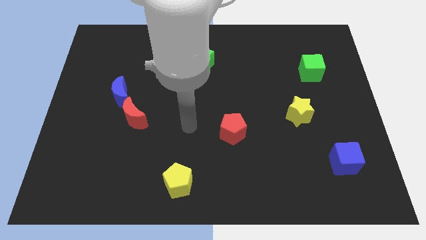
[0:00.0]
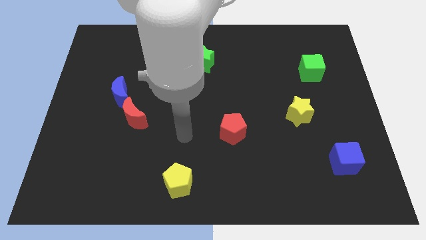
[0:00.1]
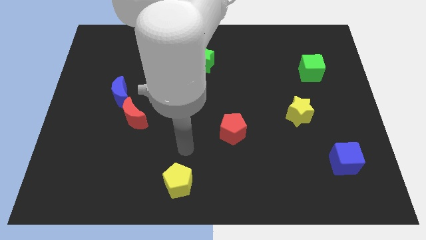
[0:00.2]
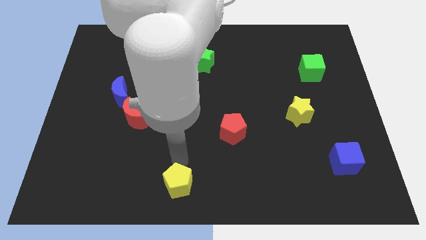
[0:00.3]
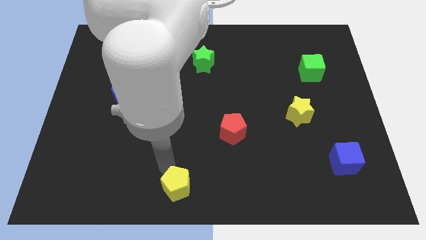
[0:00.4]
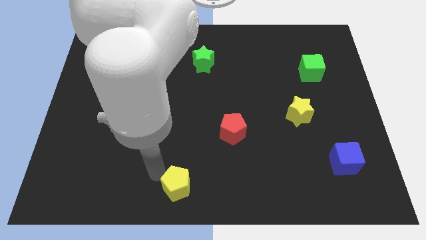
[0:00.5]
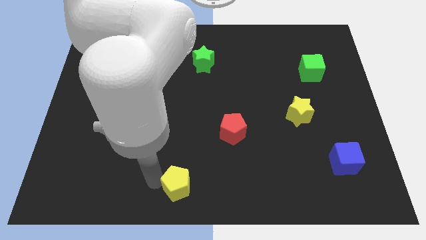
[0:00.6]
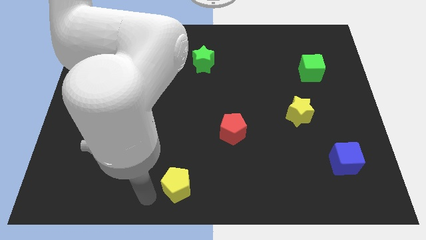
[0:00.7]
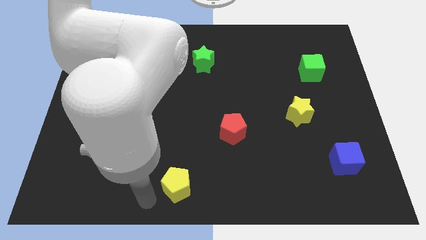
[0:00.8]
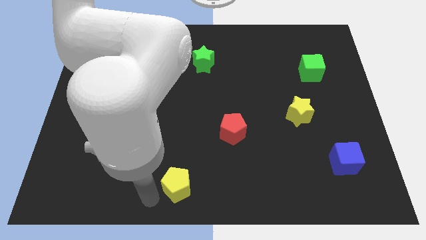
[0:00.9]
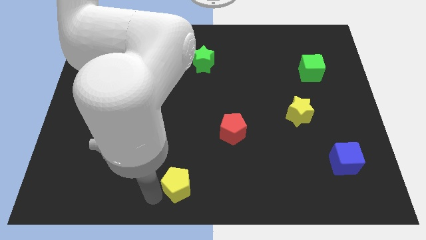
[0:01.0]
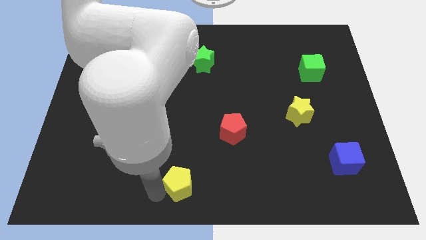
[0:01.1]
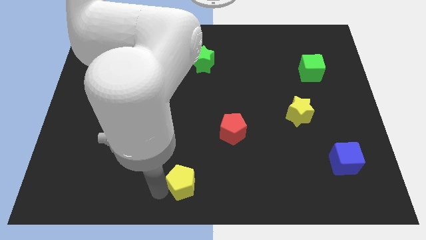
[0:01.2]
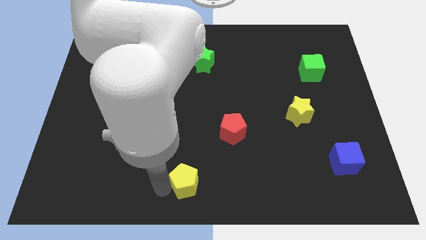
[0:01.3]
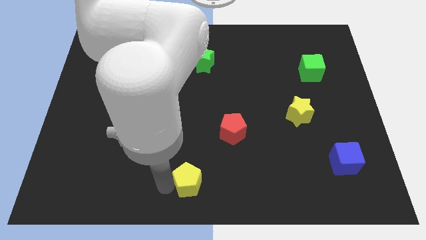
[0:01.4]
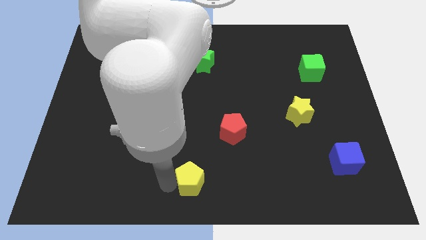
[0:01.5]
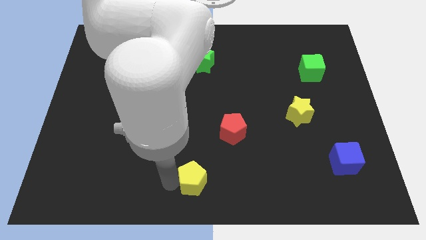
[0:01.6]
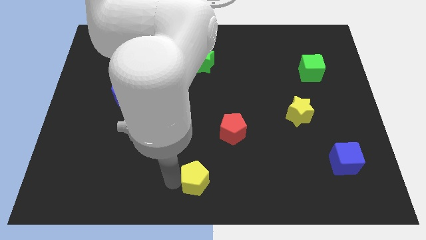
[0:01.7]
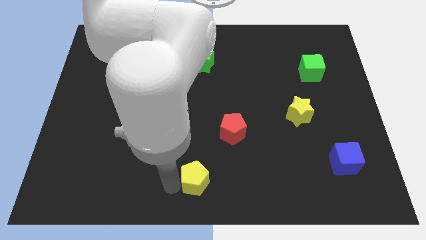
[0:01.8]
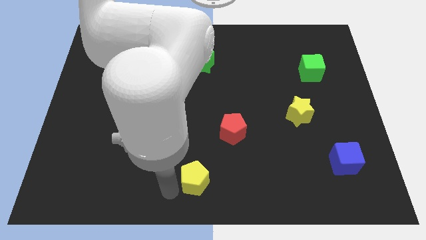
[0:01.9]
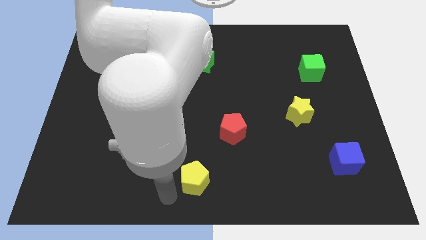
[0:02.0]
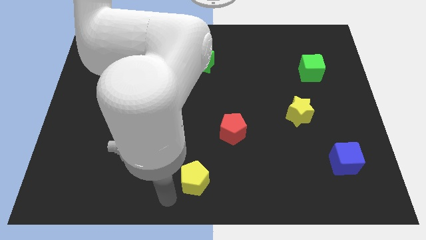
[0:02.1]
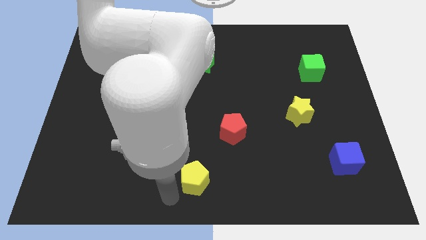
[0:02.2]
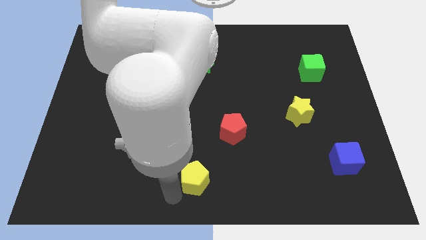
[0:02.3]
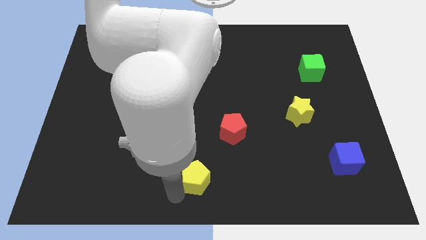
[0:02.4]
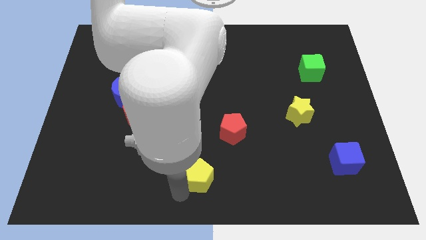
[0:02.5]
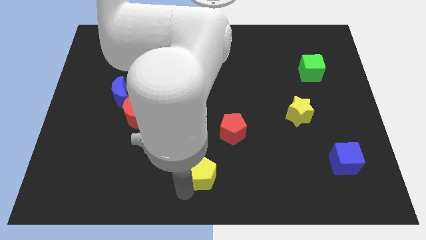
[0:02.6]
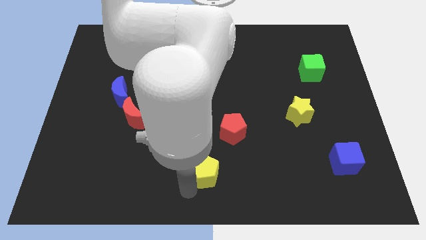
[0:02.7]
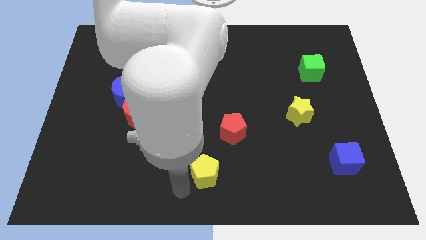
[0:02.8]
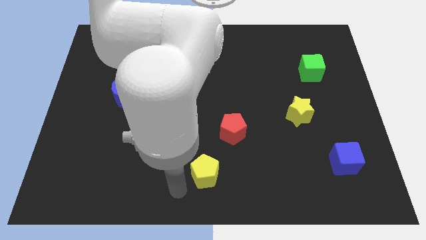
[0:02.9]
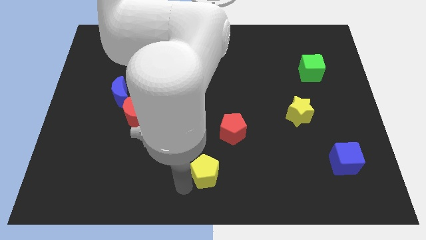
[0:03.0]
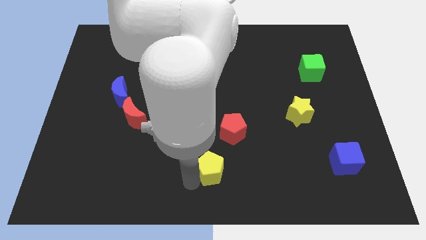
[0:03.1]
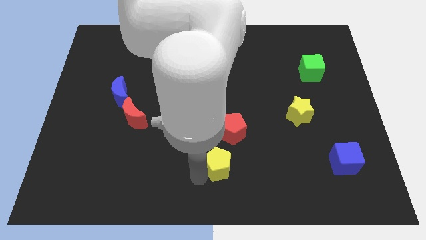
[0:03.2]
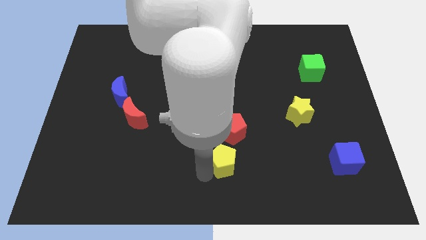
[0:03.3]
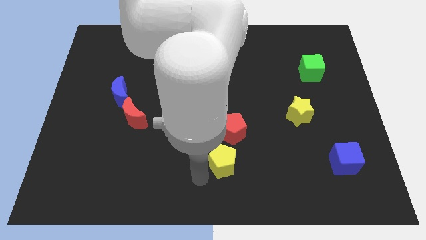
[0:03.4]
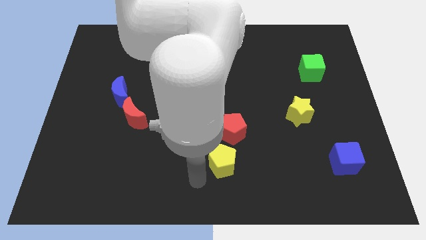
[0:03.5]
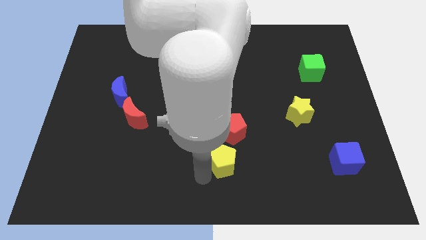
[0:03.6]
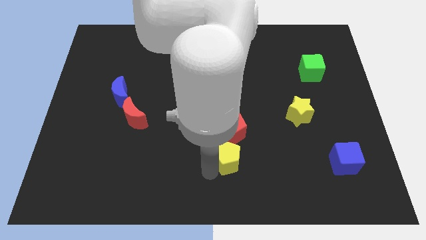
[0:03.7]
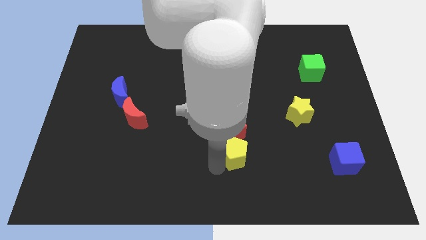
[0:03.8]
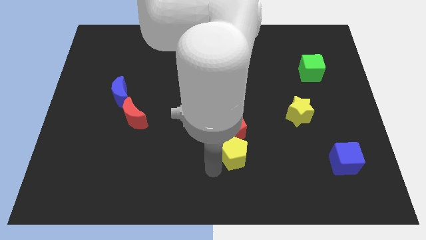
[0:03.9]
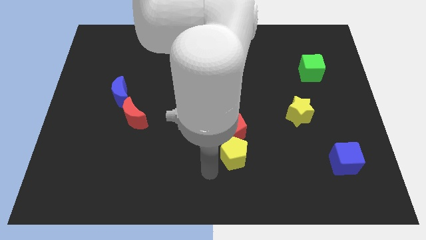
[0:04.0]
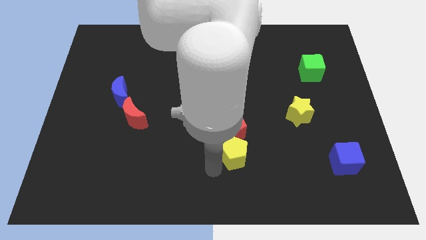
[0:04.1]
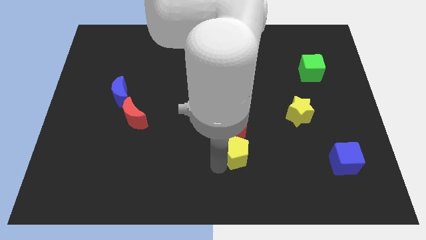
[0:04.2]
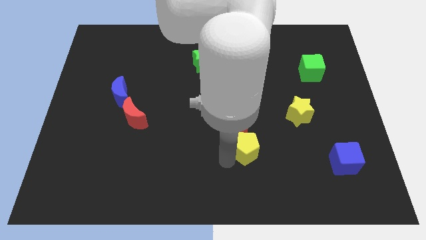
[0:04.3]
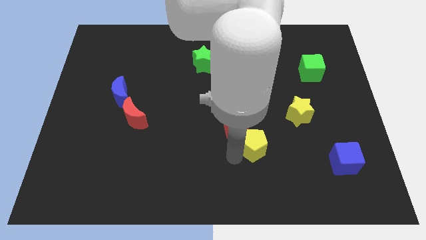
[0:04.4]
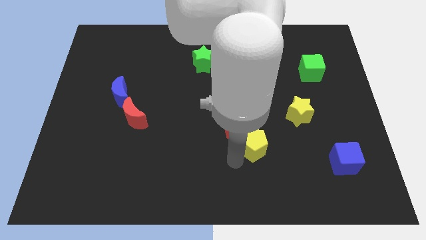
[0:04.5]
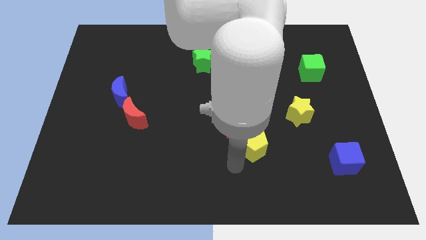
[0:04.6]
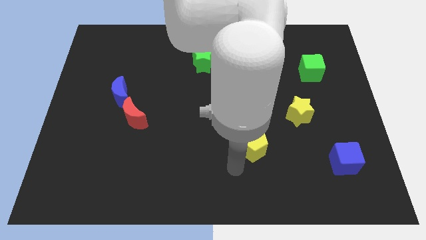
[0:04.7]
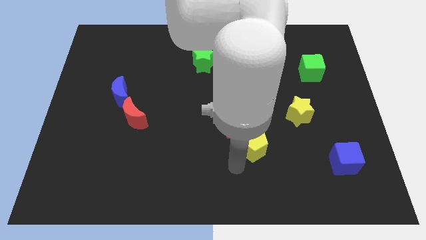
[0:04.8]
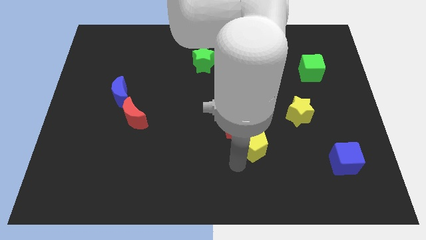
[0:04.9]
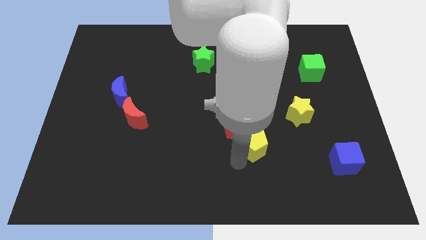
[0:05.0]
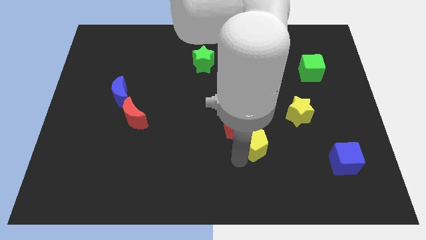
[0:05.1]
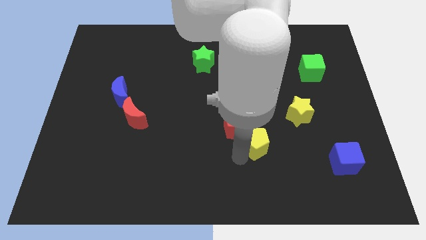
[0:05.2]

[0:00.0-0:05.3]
move the yellow pentagon to the right side of the red pentagon

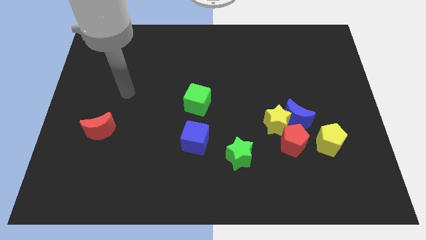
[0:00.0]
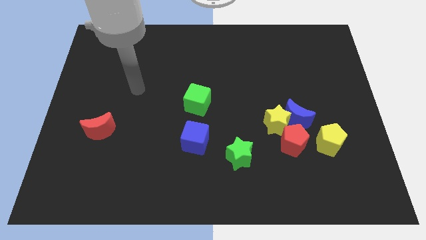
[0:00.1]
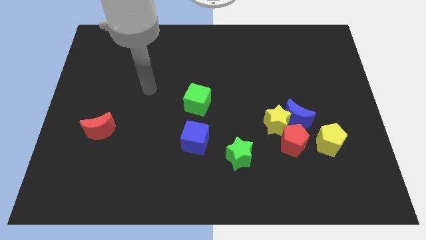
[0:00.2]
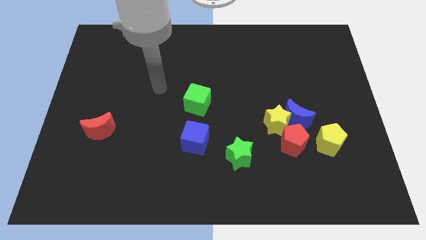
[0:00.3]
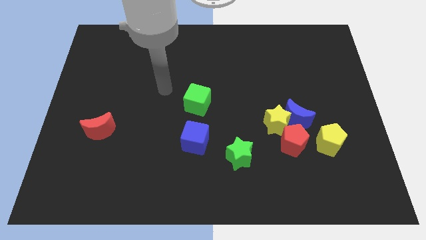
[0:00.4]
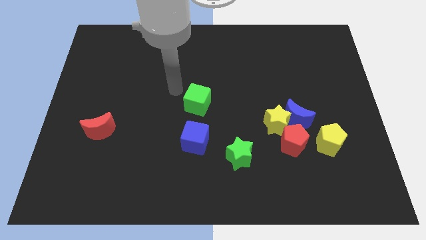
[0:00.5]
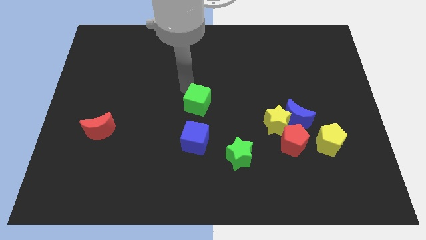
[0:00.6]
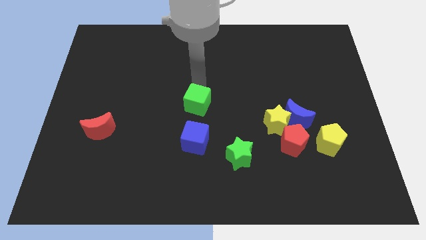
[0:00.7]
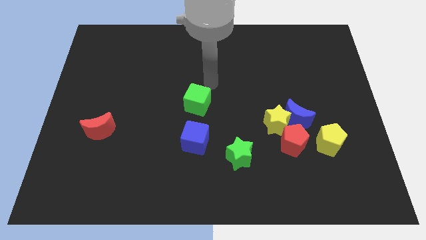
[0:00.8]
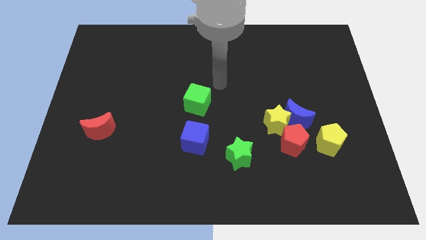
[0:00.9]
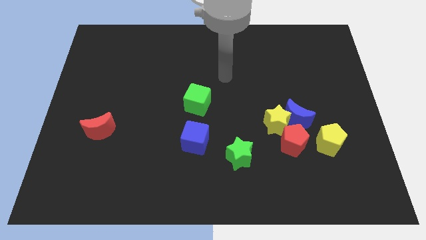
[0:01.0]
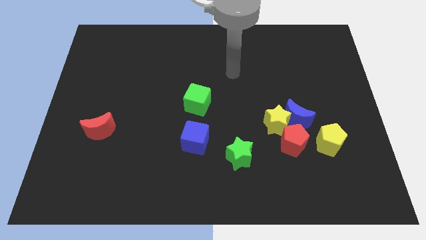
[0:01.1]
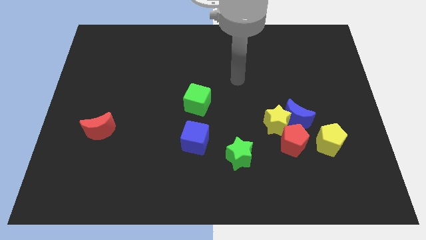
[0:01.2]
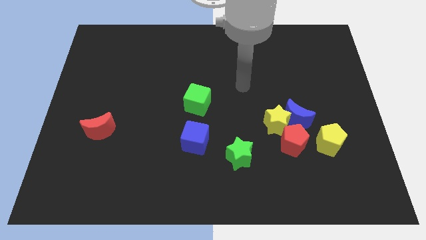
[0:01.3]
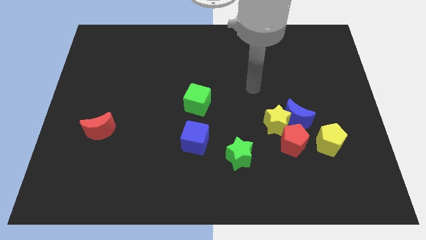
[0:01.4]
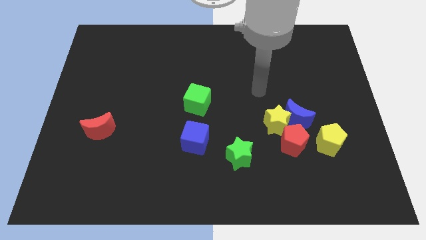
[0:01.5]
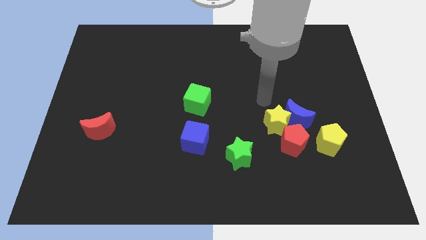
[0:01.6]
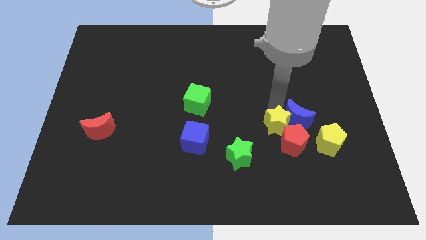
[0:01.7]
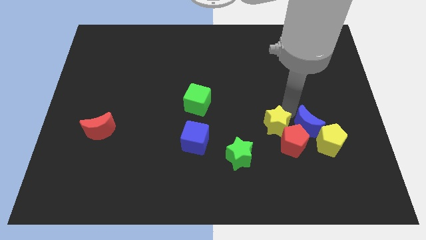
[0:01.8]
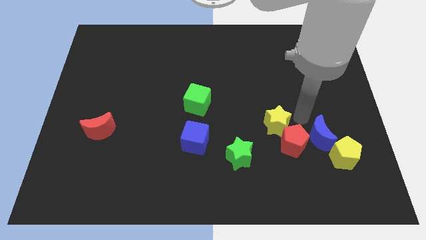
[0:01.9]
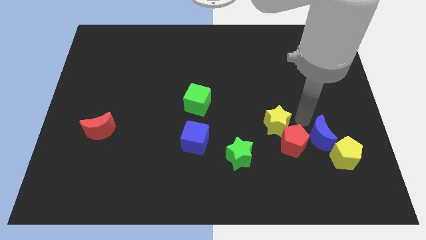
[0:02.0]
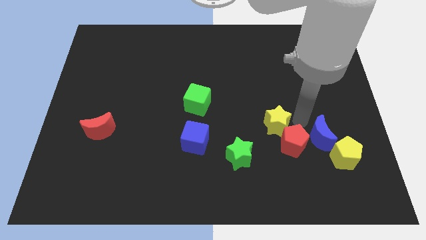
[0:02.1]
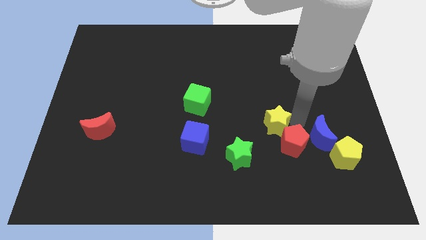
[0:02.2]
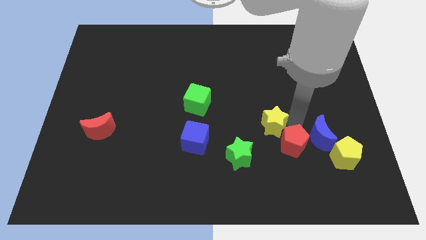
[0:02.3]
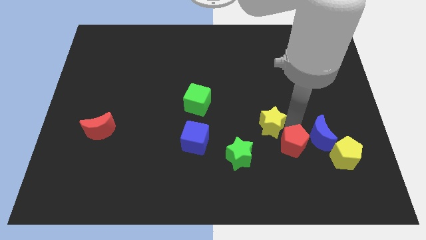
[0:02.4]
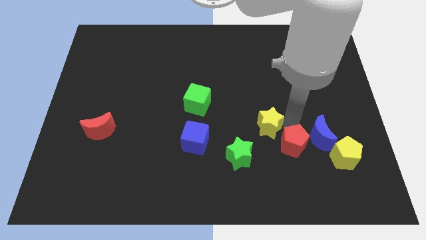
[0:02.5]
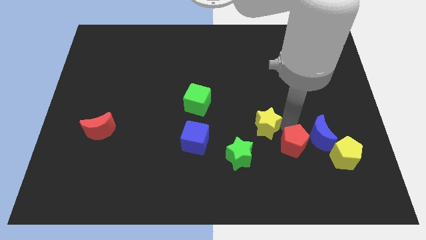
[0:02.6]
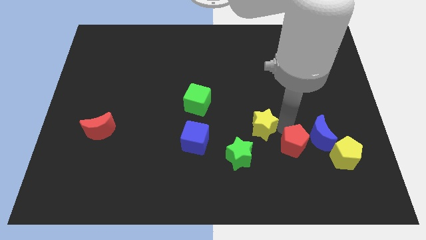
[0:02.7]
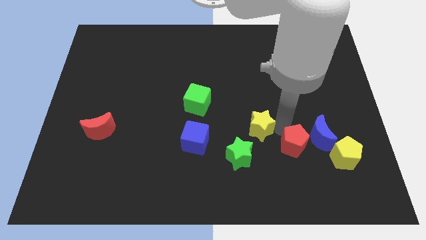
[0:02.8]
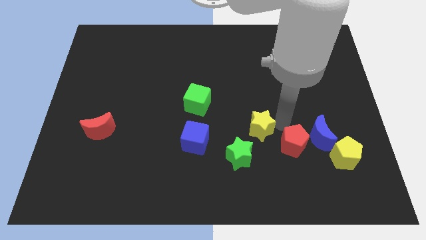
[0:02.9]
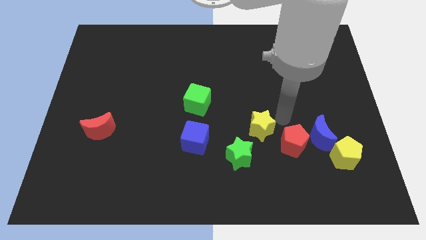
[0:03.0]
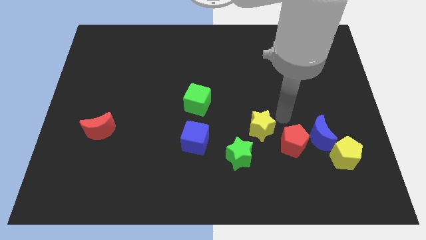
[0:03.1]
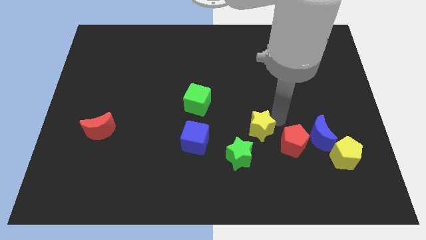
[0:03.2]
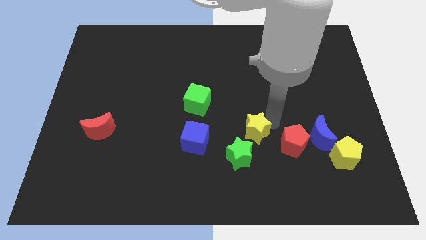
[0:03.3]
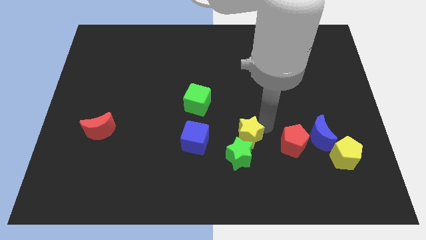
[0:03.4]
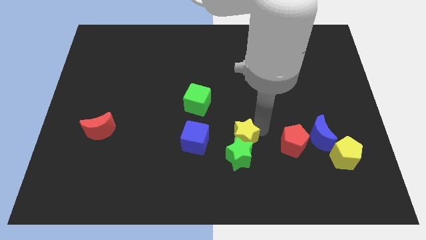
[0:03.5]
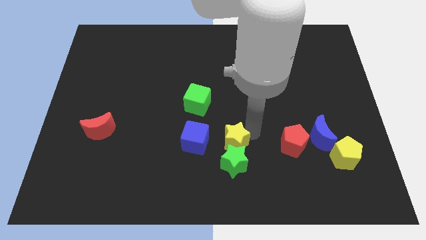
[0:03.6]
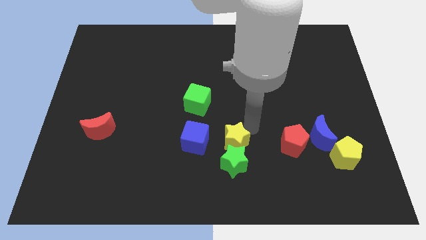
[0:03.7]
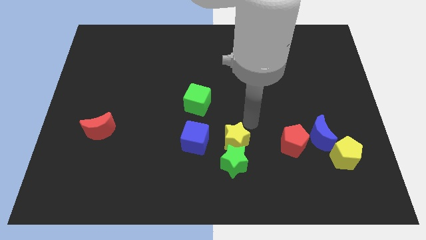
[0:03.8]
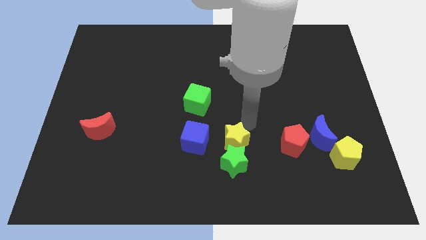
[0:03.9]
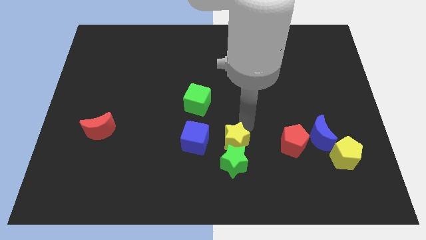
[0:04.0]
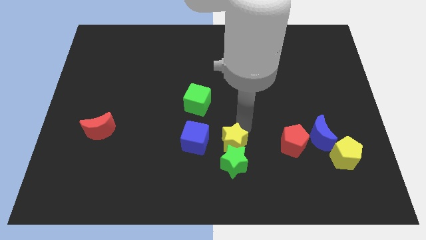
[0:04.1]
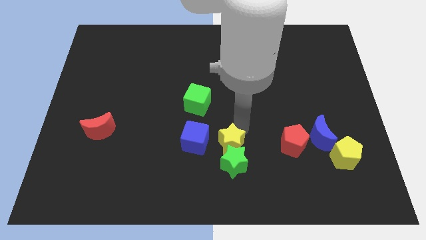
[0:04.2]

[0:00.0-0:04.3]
push the yellow star to the bottom right of the blue cube
